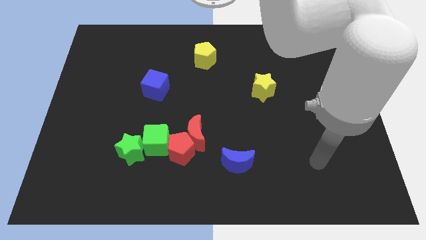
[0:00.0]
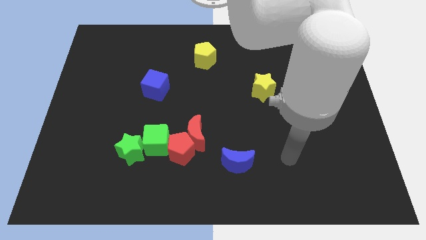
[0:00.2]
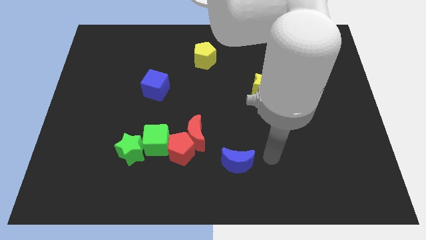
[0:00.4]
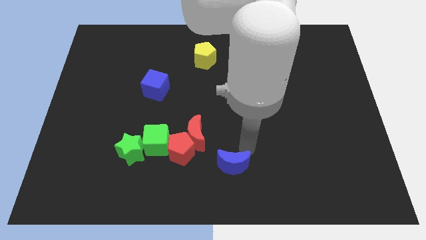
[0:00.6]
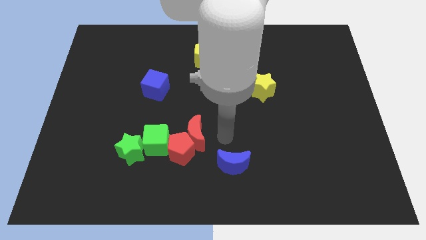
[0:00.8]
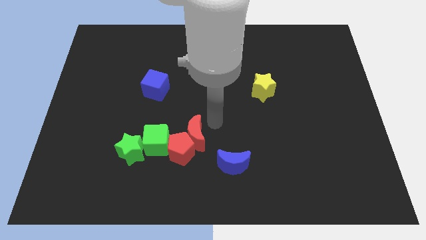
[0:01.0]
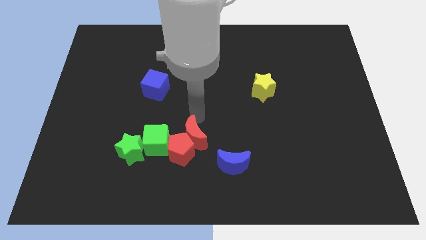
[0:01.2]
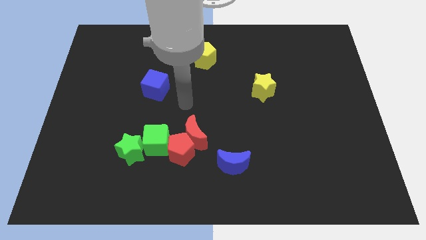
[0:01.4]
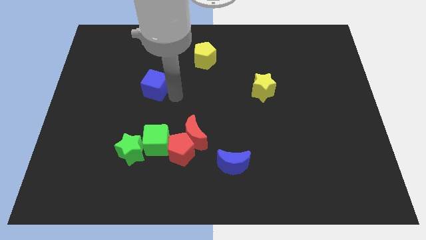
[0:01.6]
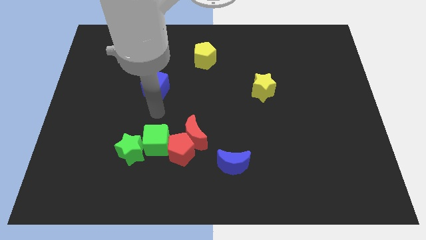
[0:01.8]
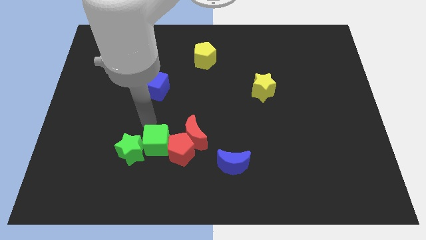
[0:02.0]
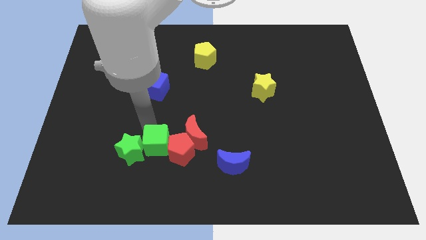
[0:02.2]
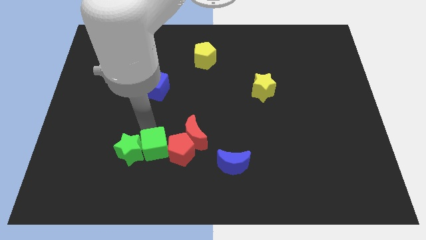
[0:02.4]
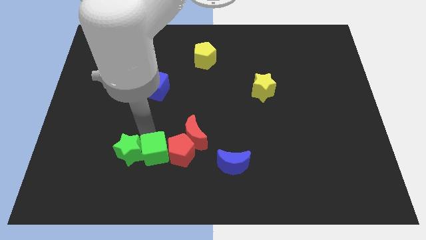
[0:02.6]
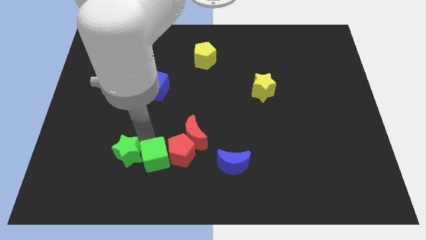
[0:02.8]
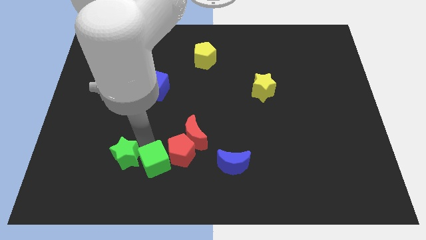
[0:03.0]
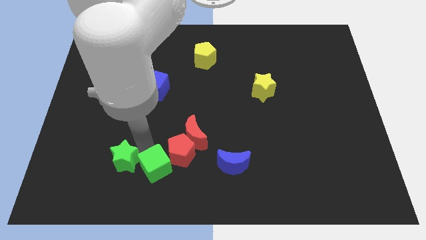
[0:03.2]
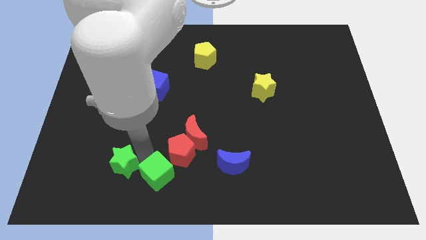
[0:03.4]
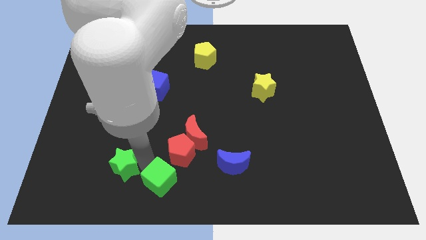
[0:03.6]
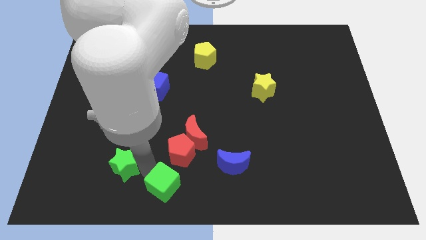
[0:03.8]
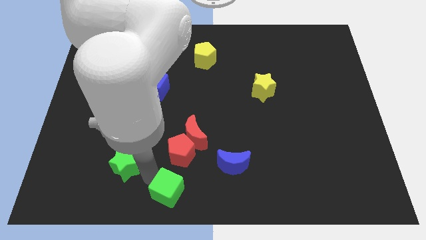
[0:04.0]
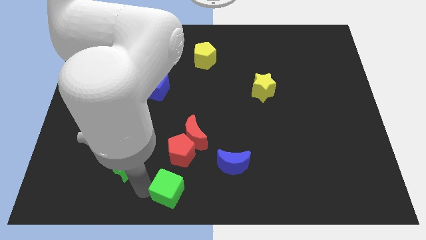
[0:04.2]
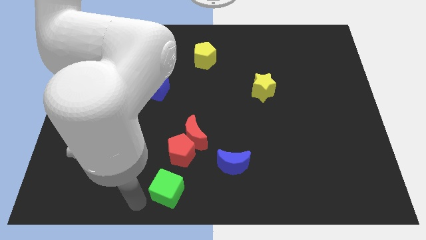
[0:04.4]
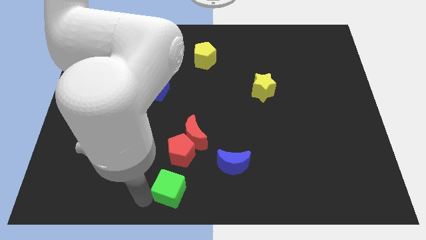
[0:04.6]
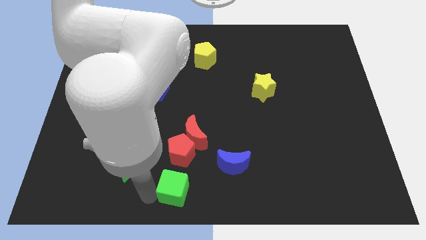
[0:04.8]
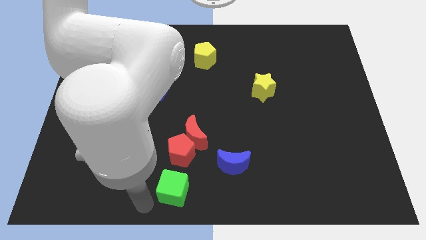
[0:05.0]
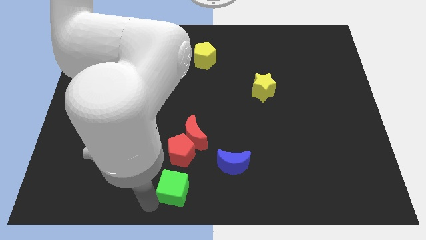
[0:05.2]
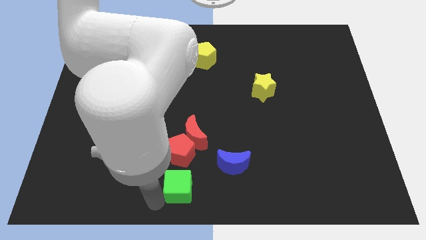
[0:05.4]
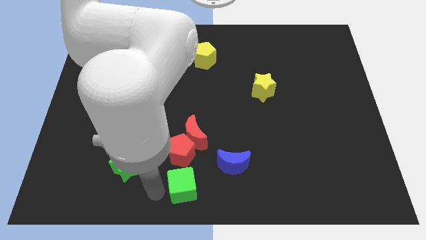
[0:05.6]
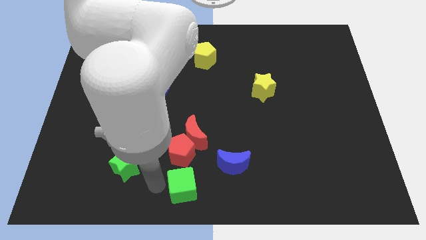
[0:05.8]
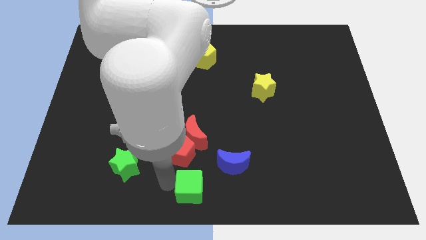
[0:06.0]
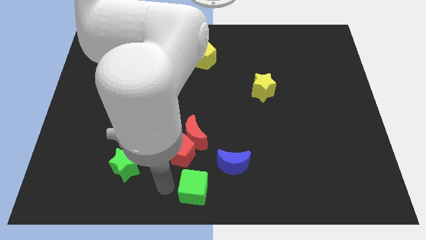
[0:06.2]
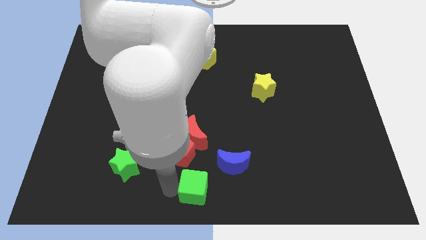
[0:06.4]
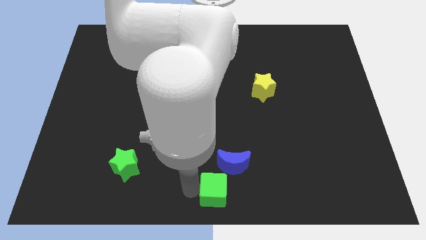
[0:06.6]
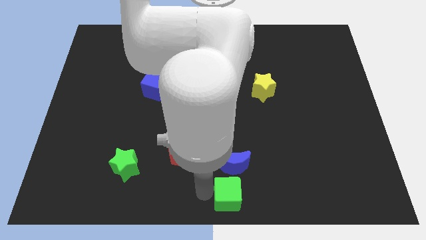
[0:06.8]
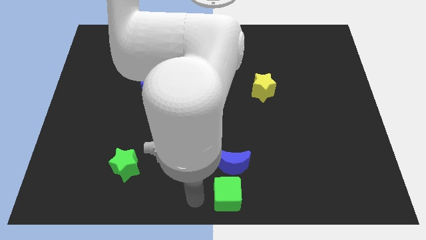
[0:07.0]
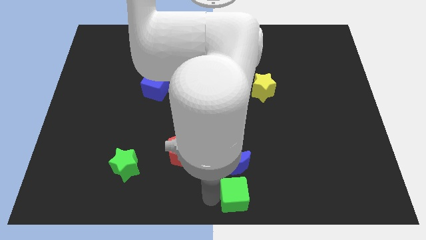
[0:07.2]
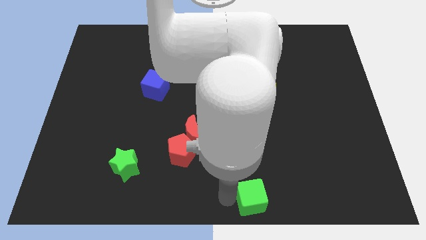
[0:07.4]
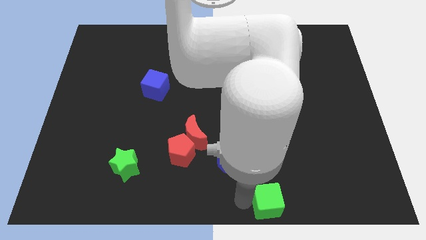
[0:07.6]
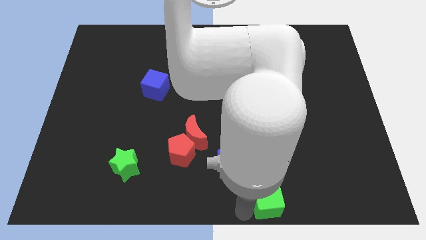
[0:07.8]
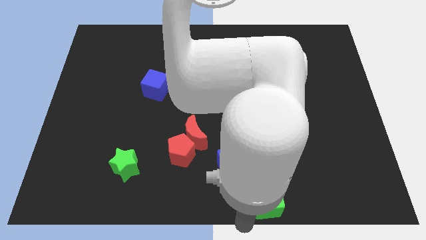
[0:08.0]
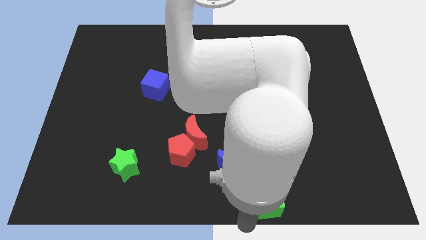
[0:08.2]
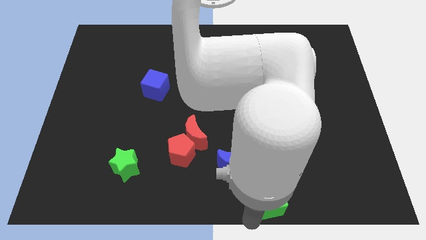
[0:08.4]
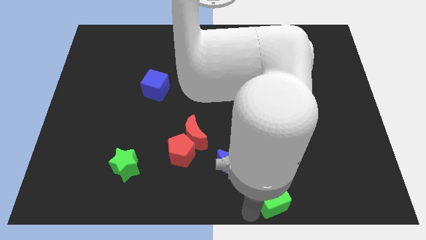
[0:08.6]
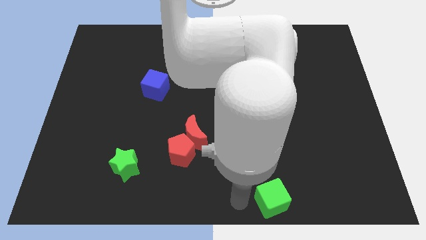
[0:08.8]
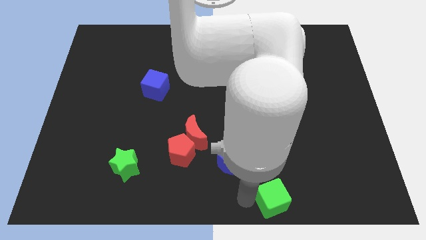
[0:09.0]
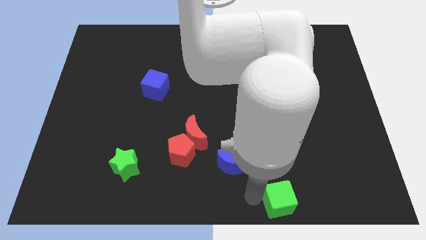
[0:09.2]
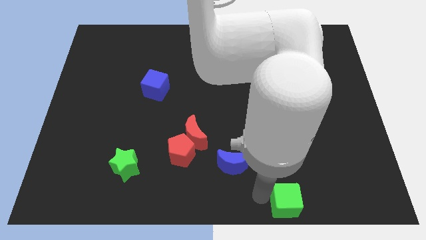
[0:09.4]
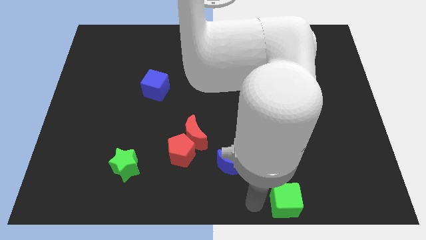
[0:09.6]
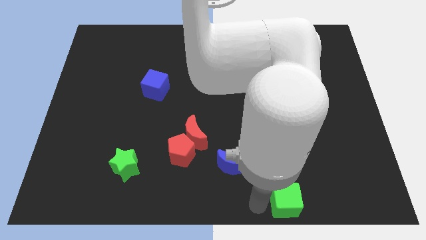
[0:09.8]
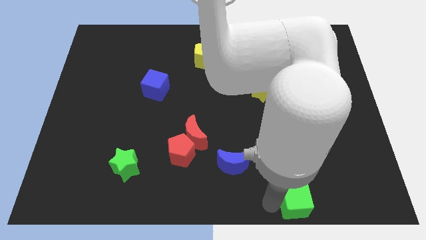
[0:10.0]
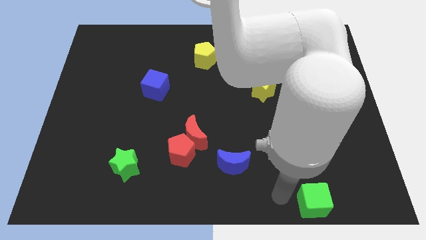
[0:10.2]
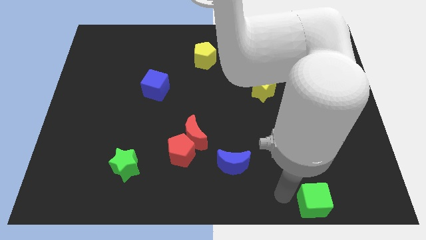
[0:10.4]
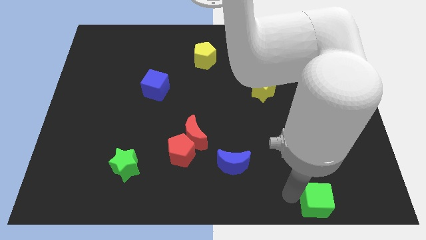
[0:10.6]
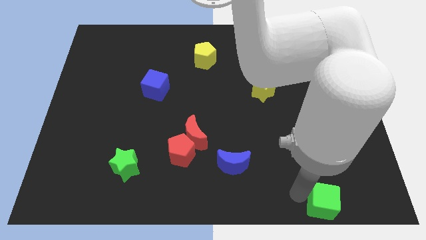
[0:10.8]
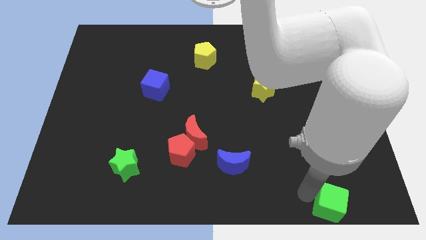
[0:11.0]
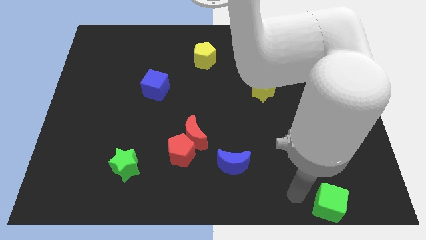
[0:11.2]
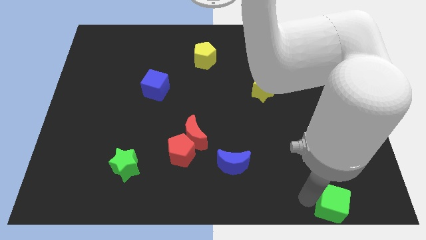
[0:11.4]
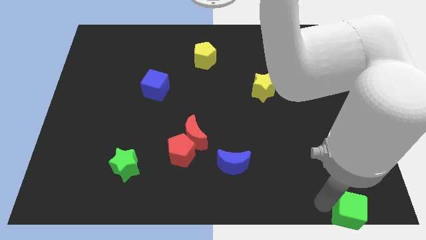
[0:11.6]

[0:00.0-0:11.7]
move the green cube to the bottom right
